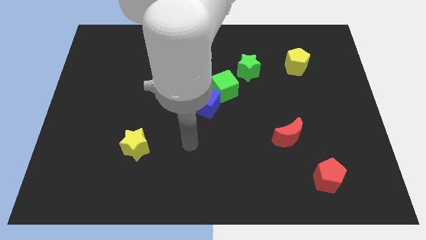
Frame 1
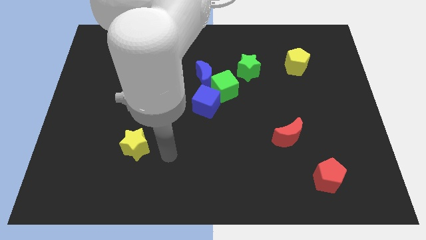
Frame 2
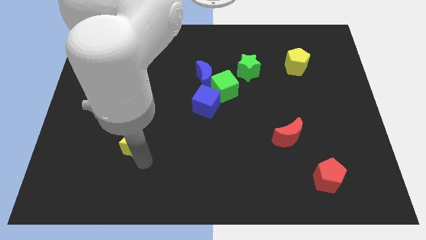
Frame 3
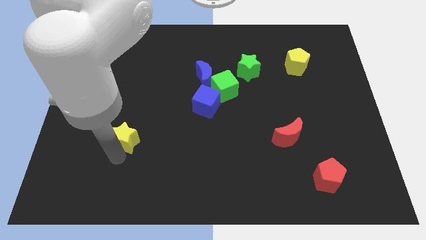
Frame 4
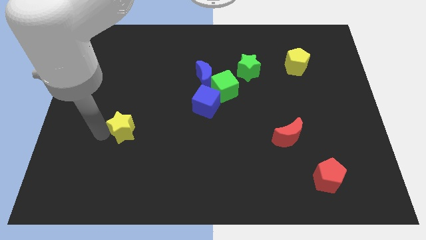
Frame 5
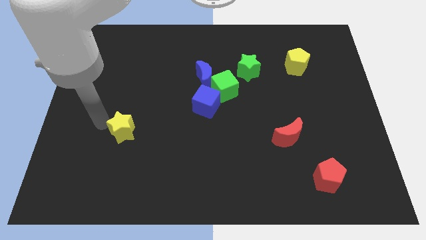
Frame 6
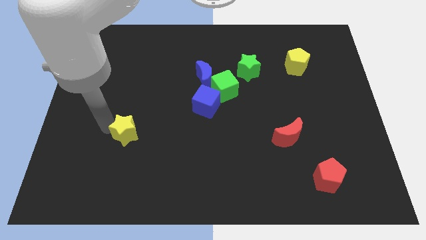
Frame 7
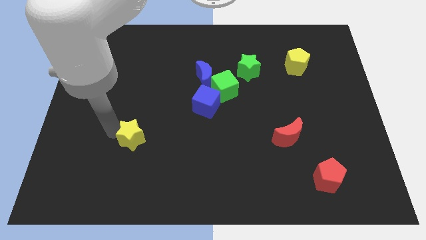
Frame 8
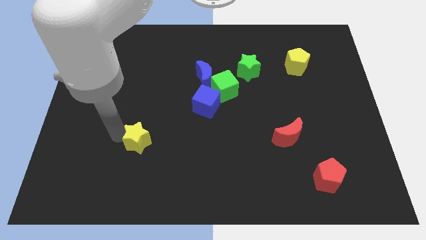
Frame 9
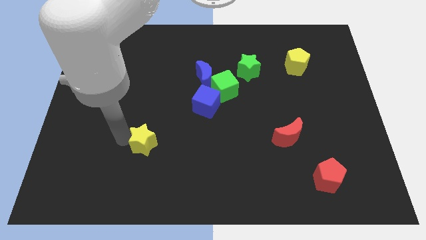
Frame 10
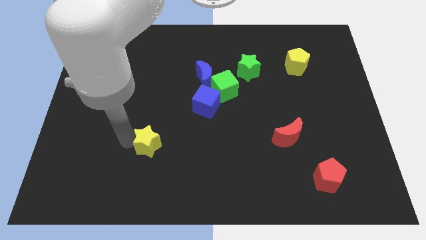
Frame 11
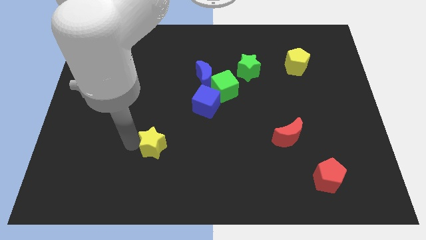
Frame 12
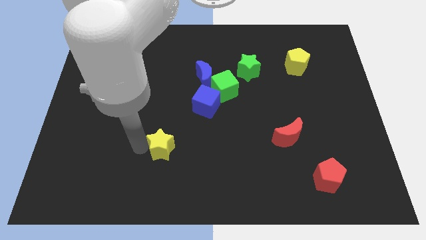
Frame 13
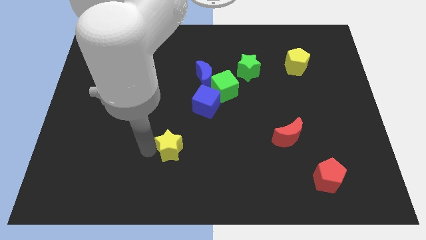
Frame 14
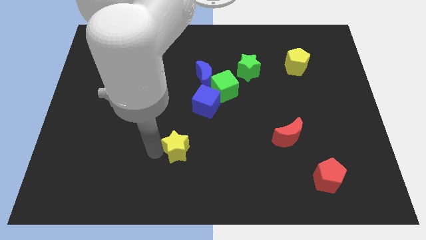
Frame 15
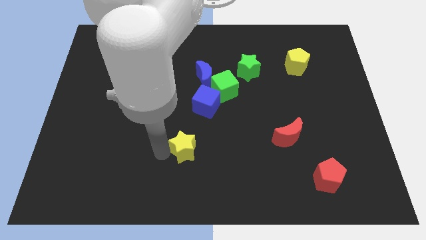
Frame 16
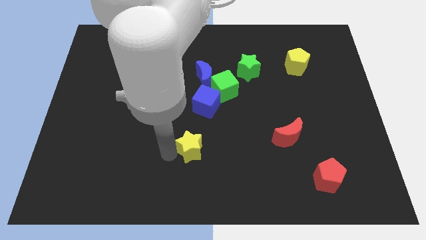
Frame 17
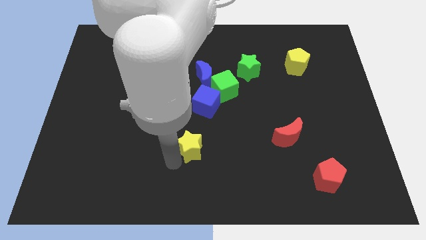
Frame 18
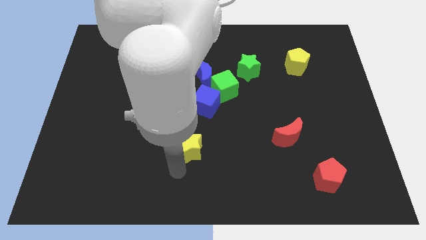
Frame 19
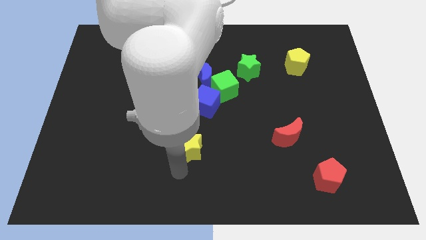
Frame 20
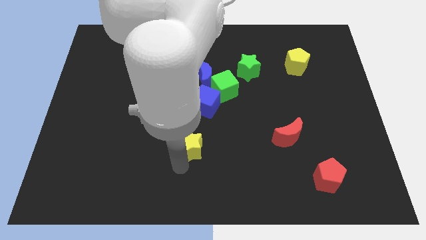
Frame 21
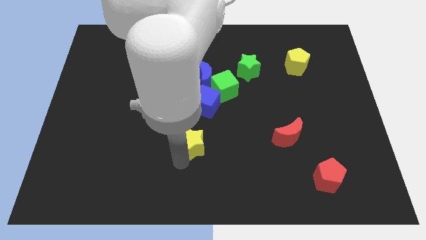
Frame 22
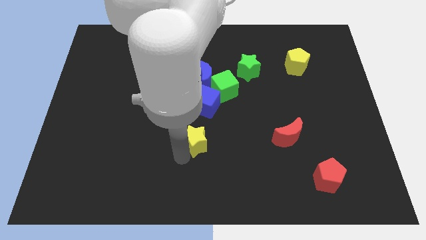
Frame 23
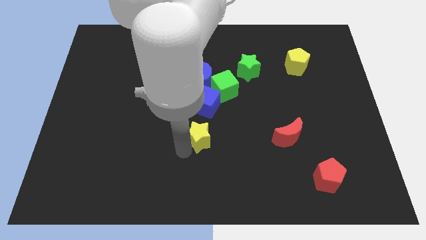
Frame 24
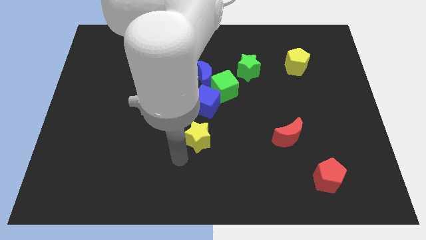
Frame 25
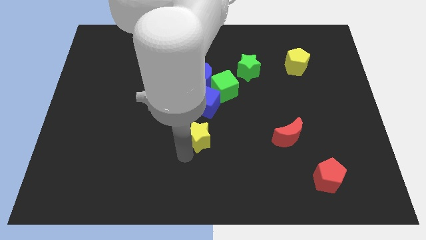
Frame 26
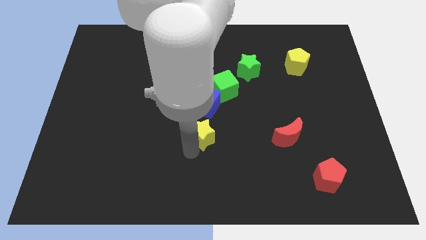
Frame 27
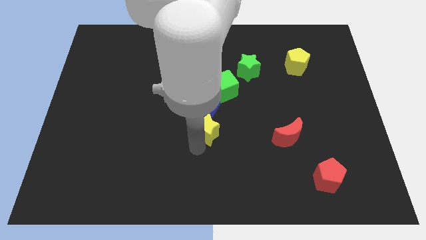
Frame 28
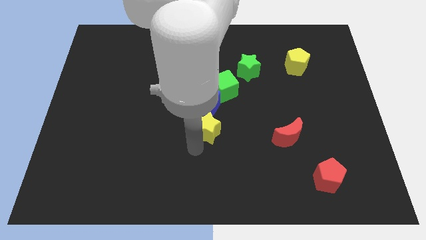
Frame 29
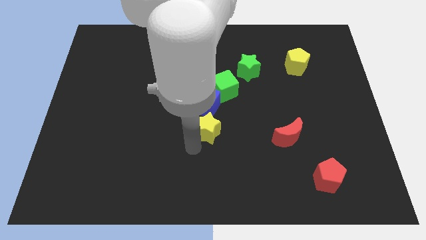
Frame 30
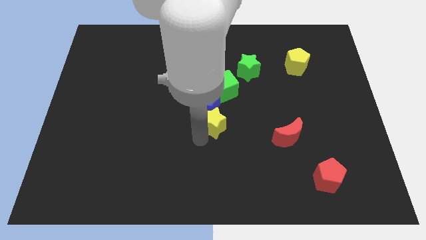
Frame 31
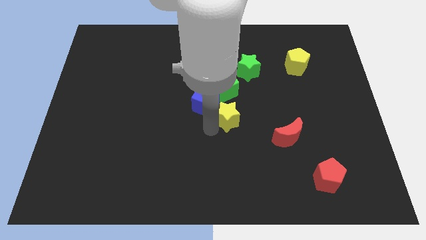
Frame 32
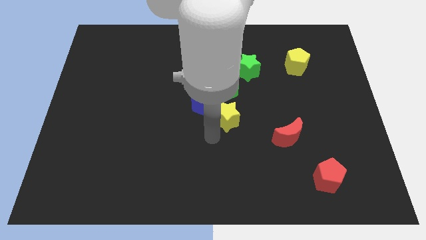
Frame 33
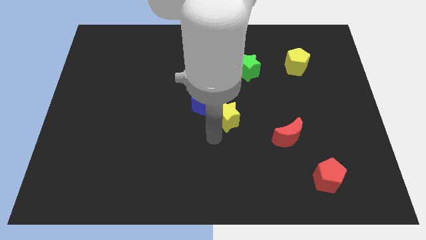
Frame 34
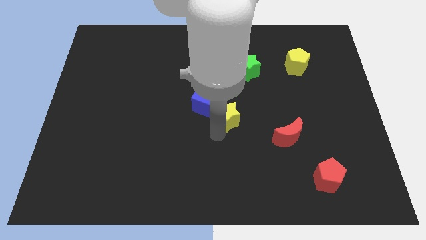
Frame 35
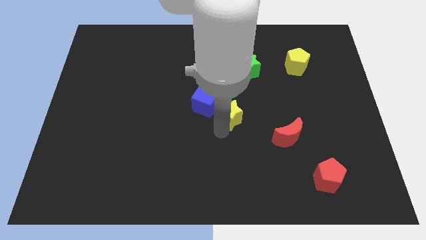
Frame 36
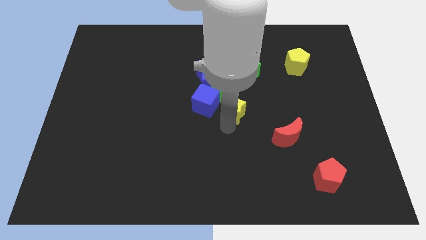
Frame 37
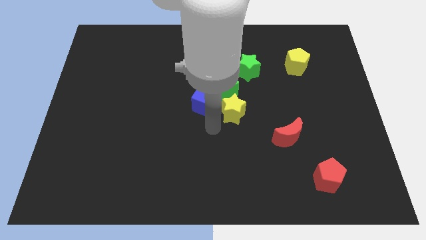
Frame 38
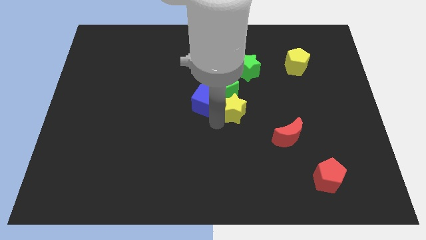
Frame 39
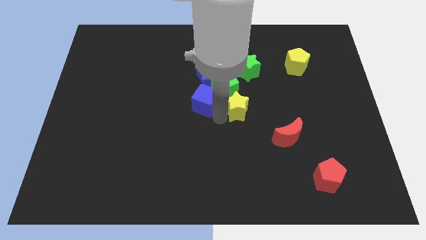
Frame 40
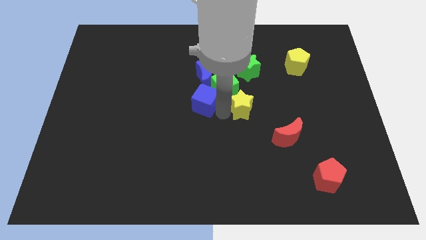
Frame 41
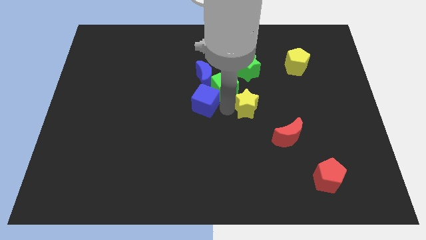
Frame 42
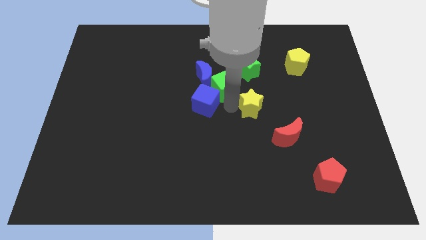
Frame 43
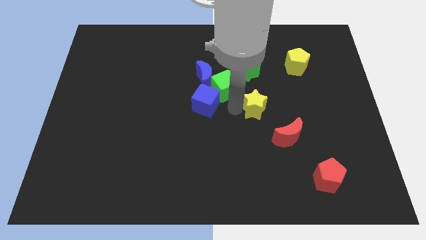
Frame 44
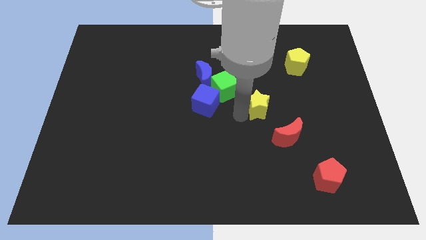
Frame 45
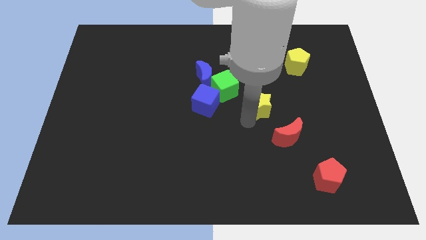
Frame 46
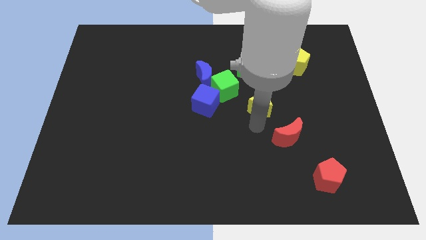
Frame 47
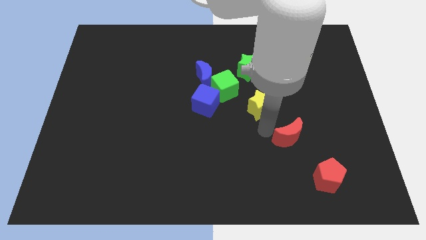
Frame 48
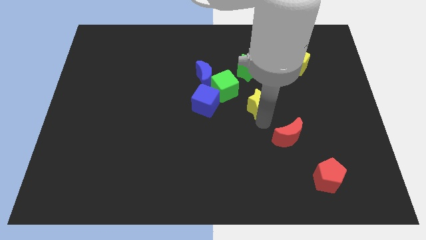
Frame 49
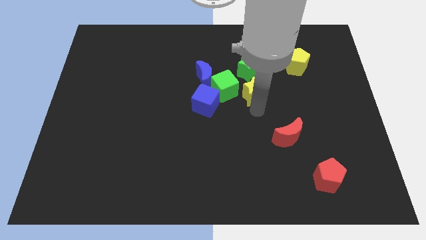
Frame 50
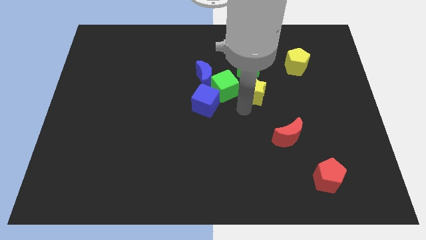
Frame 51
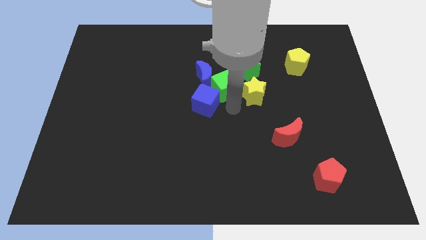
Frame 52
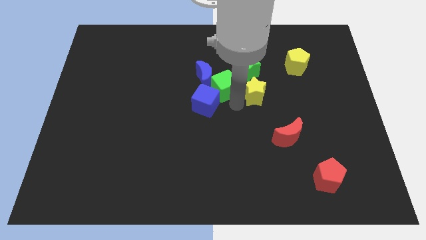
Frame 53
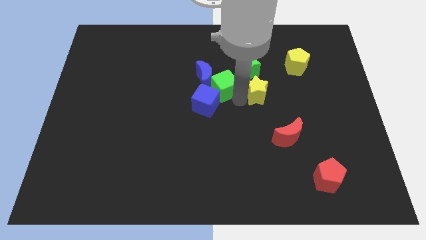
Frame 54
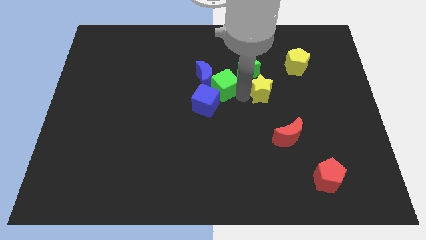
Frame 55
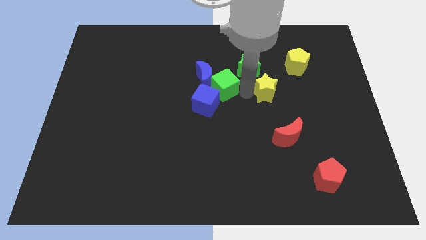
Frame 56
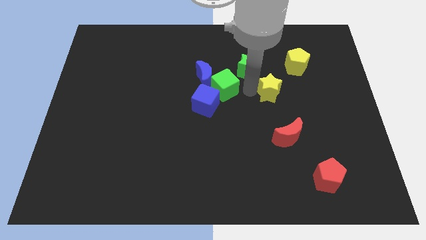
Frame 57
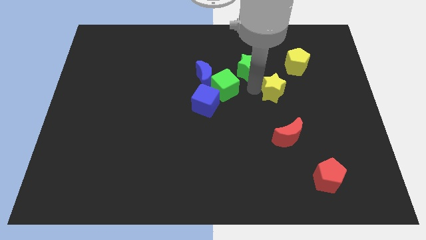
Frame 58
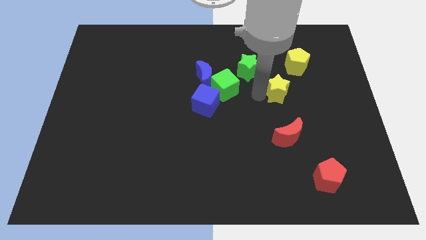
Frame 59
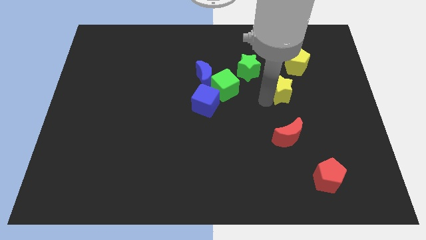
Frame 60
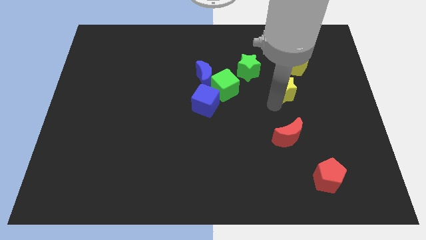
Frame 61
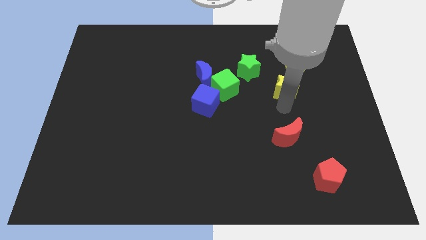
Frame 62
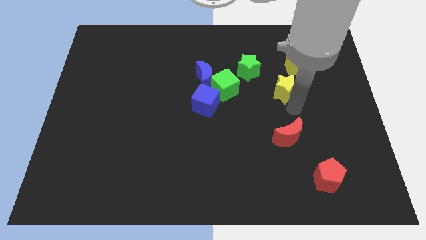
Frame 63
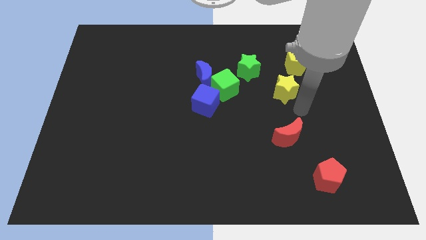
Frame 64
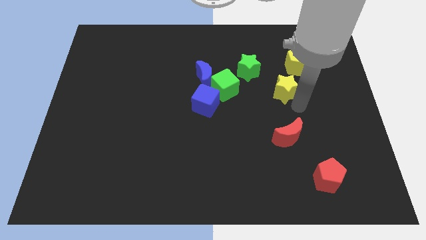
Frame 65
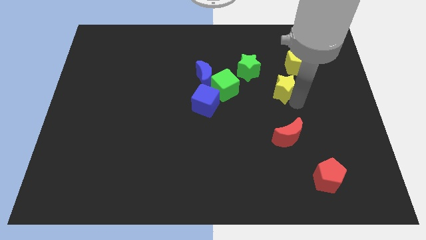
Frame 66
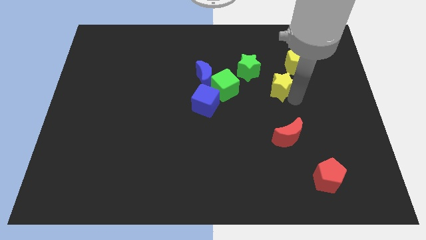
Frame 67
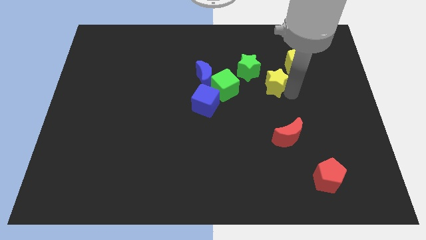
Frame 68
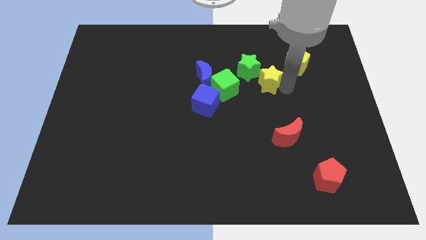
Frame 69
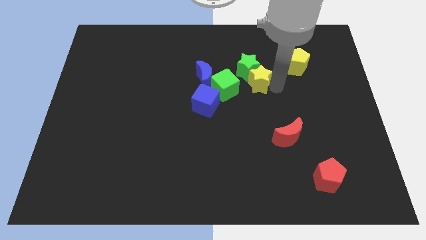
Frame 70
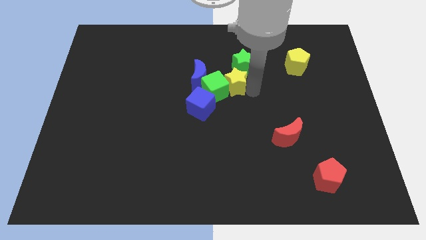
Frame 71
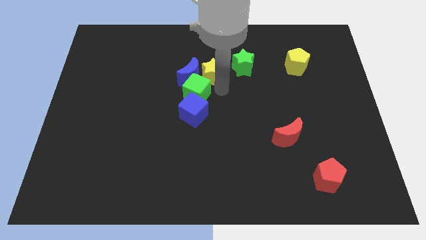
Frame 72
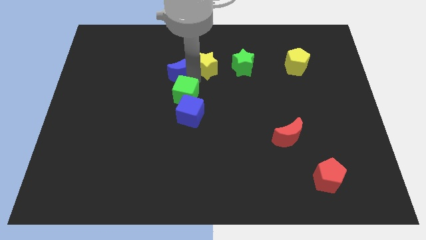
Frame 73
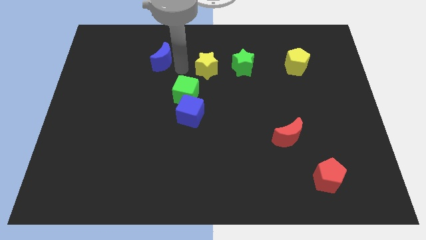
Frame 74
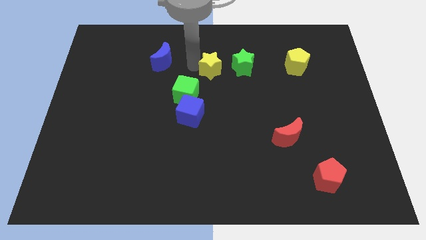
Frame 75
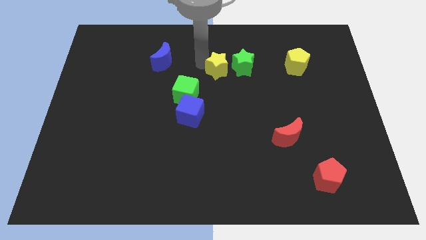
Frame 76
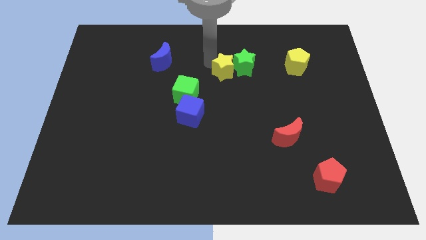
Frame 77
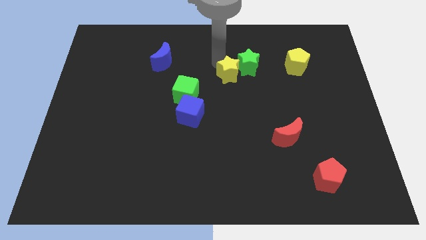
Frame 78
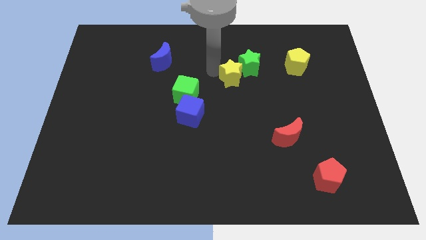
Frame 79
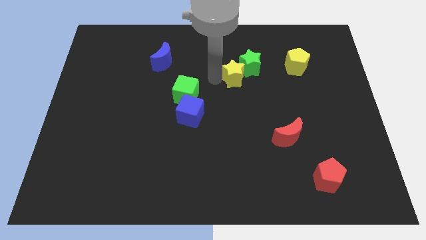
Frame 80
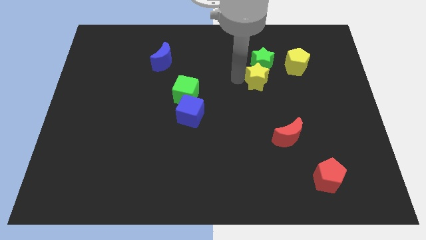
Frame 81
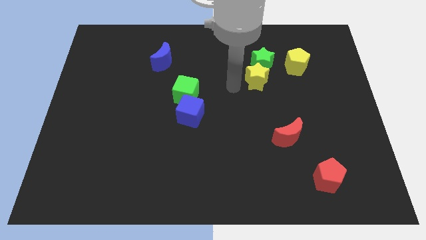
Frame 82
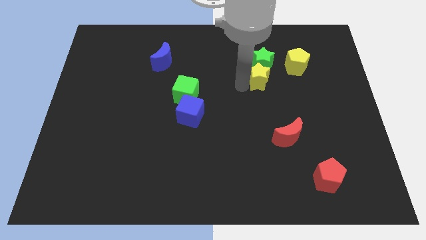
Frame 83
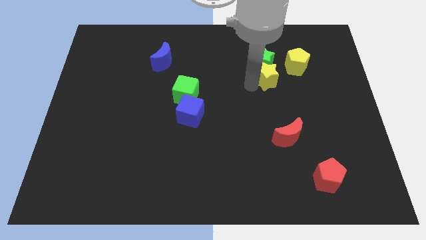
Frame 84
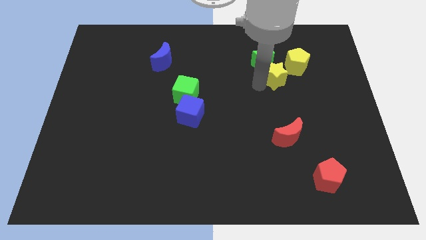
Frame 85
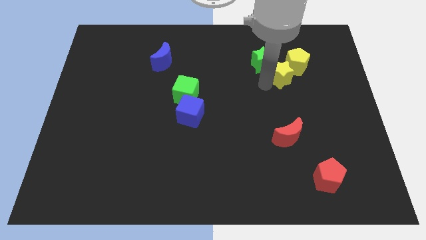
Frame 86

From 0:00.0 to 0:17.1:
put the yellow star close to the yellow pentagon
